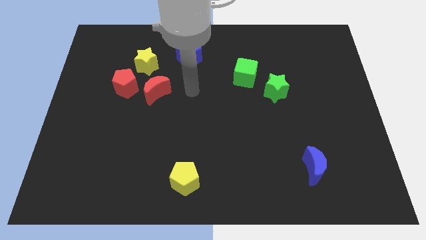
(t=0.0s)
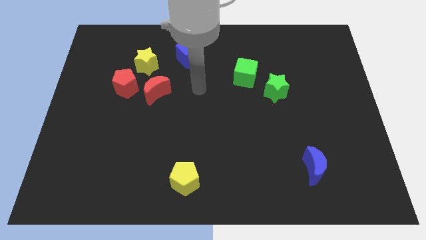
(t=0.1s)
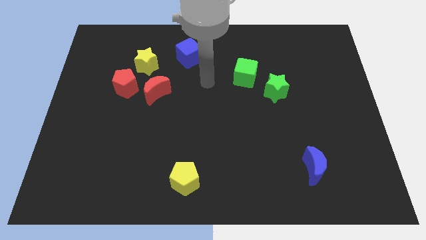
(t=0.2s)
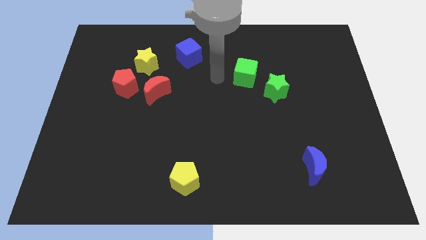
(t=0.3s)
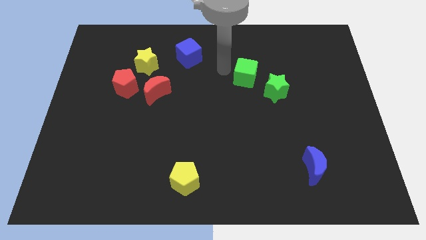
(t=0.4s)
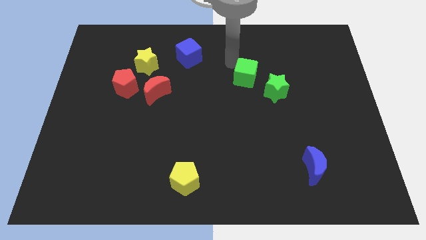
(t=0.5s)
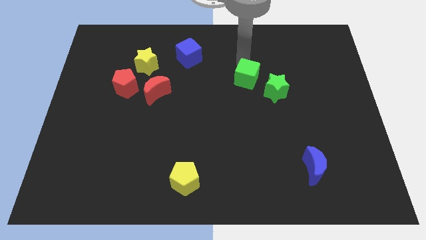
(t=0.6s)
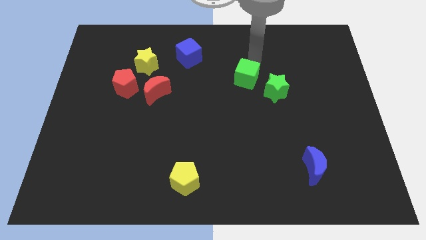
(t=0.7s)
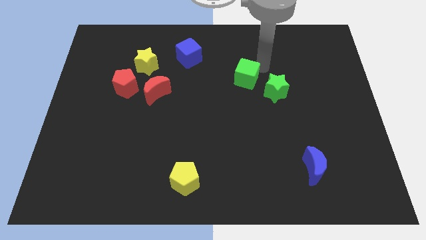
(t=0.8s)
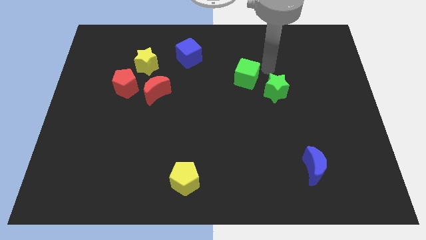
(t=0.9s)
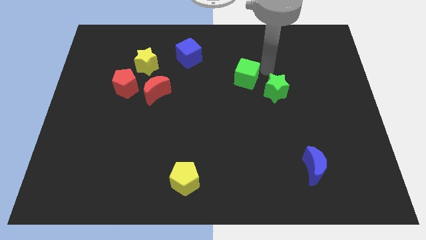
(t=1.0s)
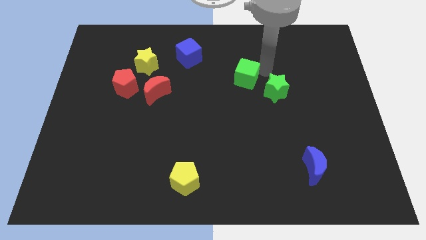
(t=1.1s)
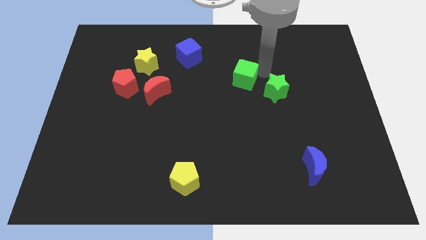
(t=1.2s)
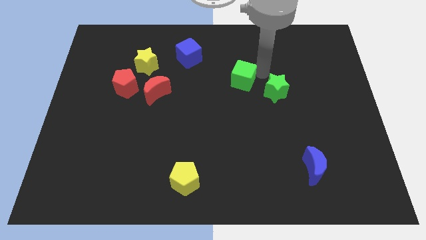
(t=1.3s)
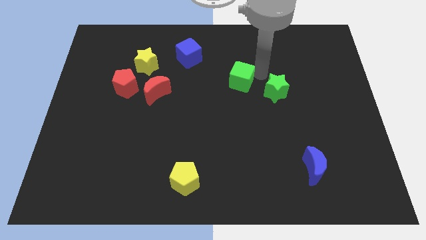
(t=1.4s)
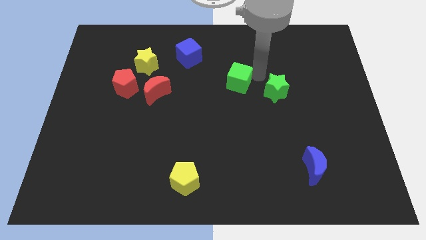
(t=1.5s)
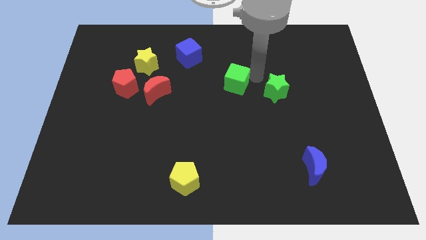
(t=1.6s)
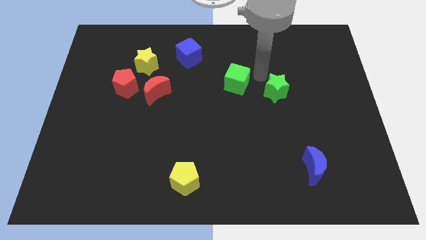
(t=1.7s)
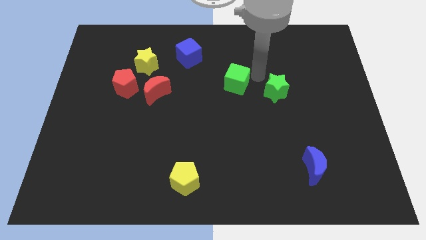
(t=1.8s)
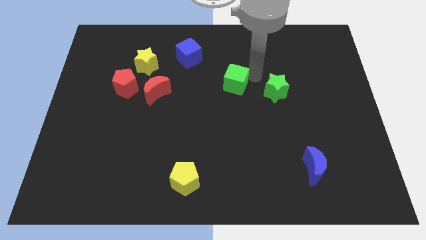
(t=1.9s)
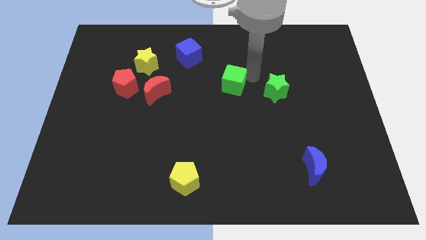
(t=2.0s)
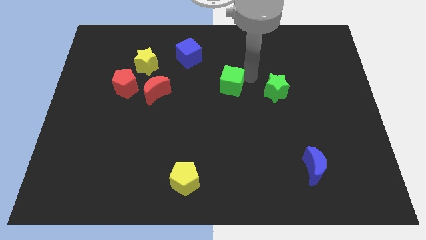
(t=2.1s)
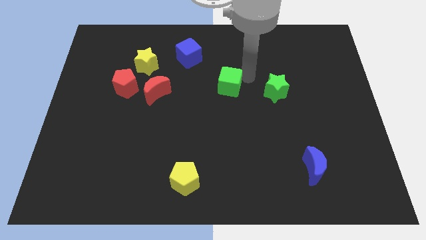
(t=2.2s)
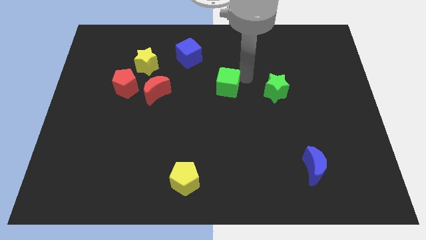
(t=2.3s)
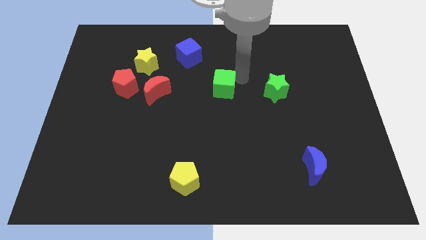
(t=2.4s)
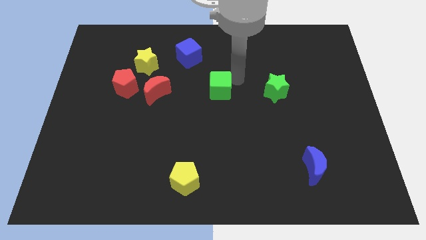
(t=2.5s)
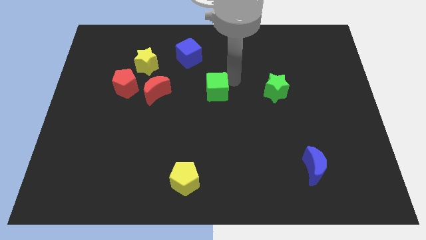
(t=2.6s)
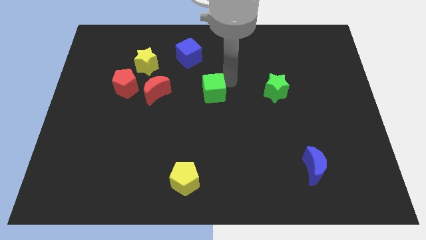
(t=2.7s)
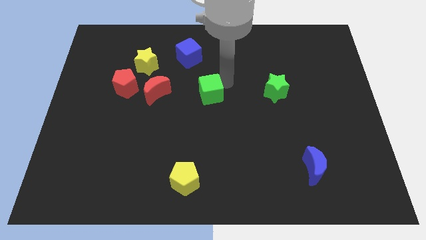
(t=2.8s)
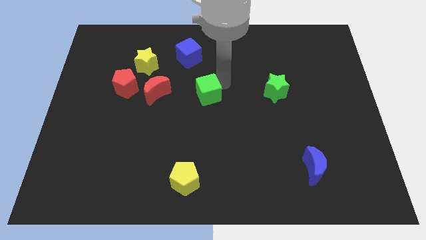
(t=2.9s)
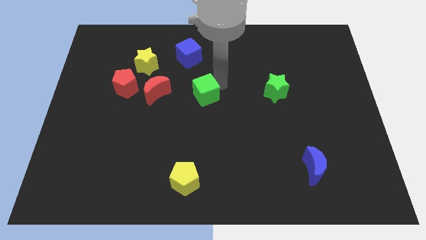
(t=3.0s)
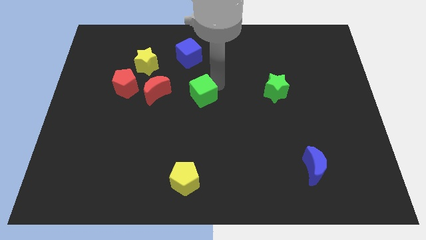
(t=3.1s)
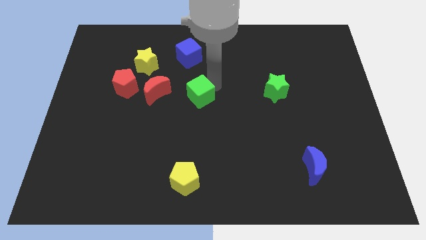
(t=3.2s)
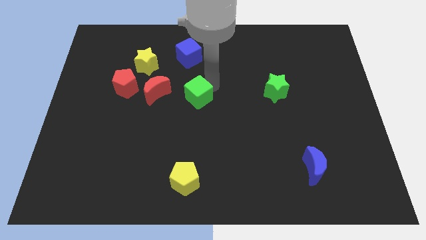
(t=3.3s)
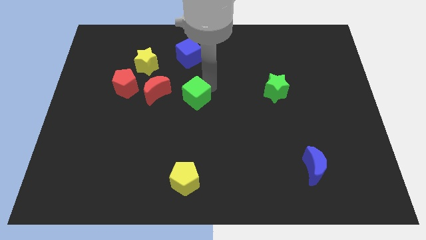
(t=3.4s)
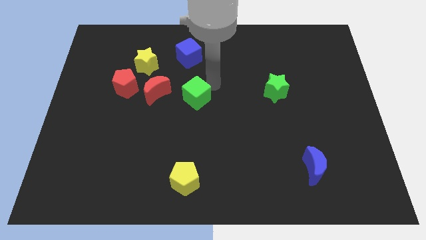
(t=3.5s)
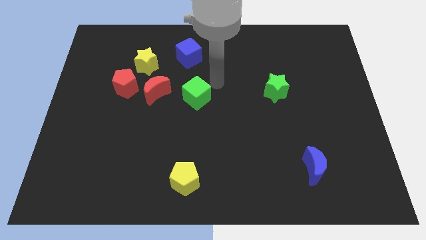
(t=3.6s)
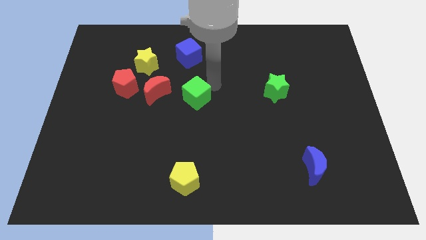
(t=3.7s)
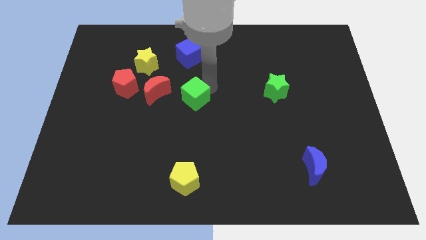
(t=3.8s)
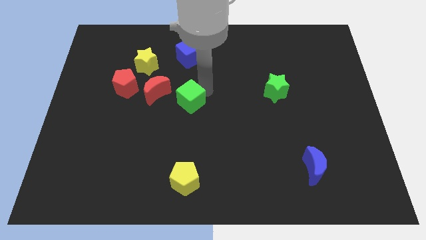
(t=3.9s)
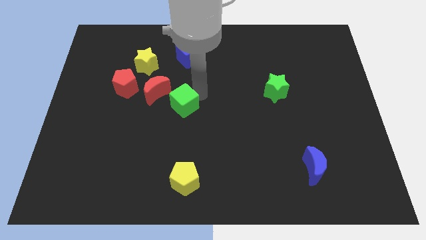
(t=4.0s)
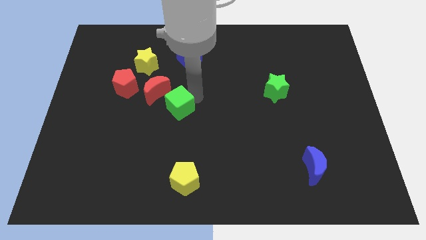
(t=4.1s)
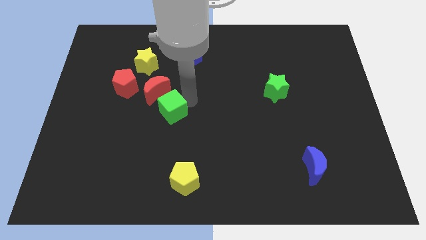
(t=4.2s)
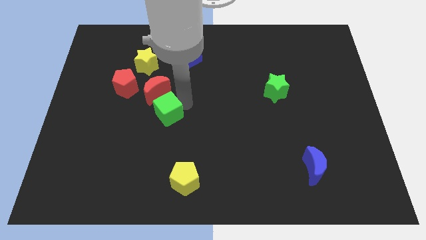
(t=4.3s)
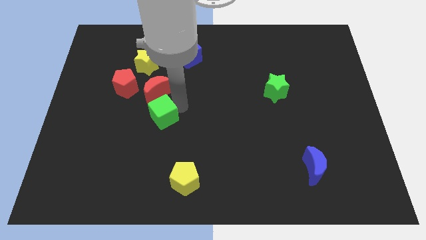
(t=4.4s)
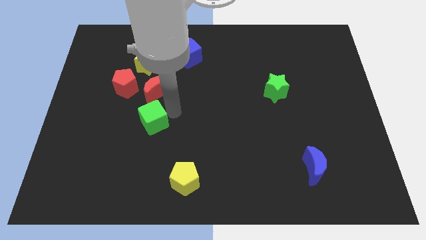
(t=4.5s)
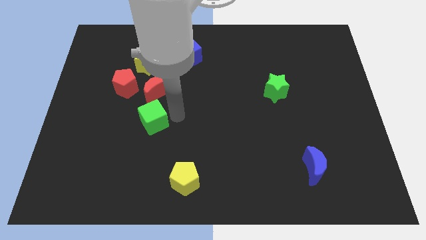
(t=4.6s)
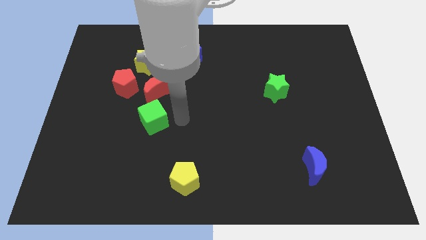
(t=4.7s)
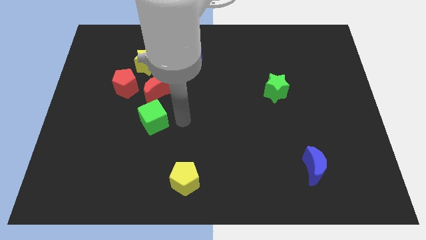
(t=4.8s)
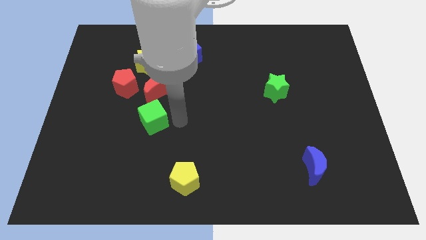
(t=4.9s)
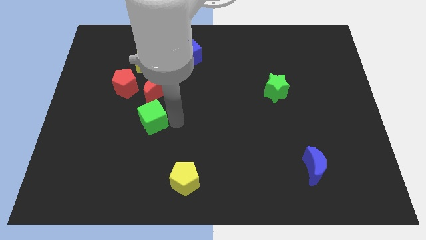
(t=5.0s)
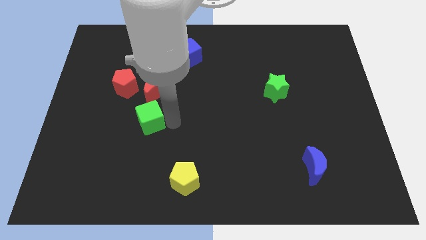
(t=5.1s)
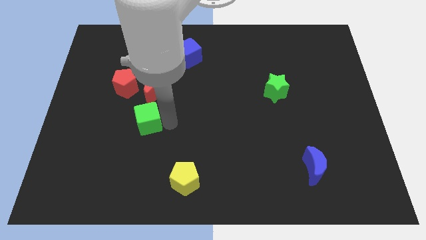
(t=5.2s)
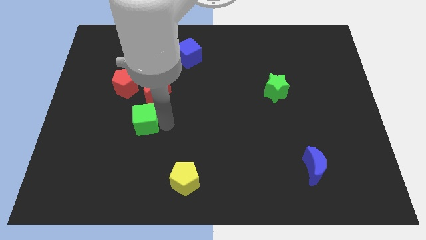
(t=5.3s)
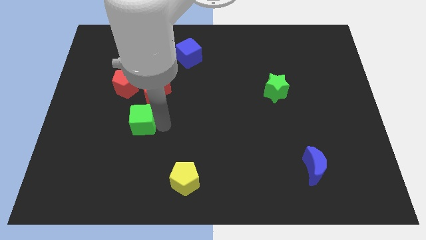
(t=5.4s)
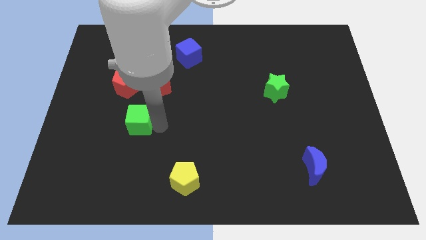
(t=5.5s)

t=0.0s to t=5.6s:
push the green cube to the bottom of the red pentagon

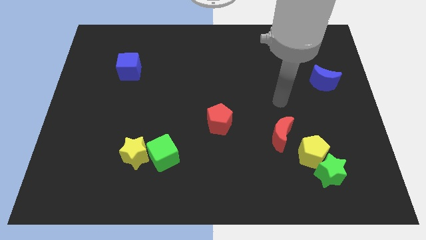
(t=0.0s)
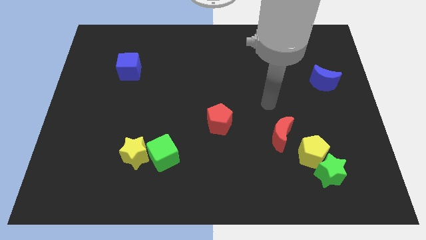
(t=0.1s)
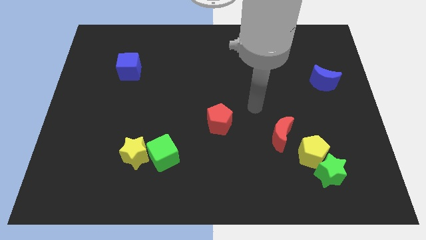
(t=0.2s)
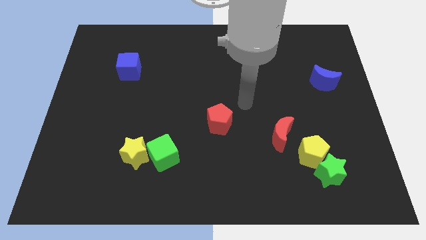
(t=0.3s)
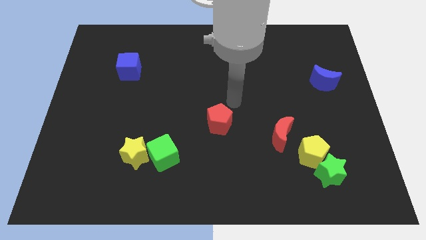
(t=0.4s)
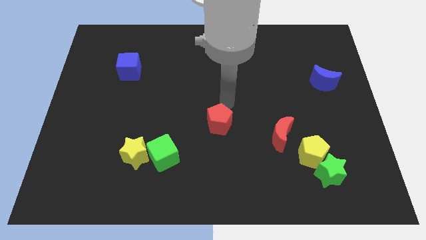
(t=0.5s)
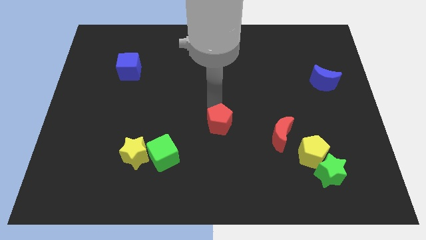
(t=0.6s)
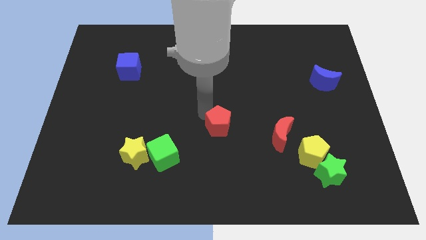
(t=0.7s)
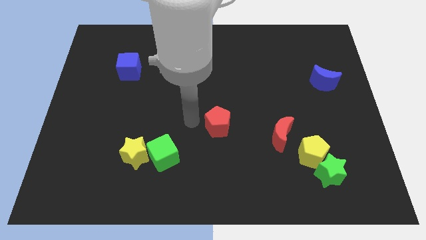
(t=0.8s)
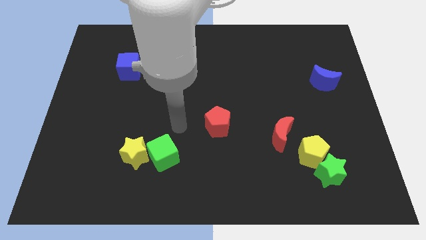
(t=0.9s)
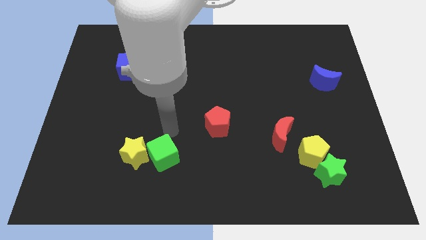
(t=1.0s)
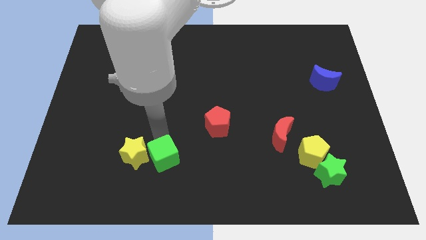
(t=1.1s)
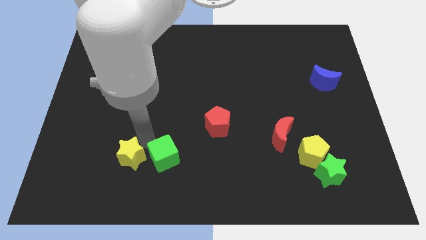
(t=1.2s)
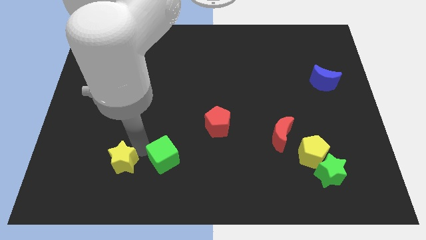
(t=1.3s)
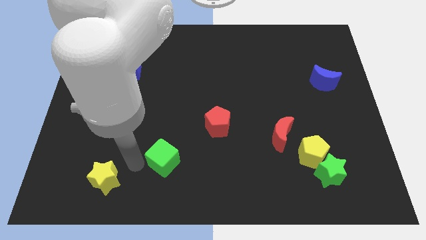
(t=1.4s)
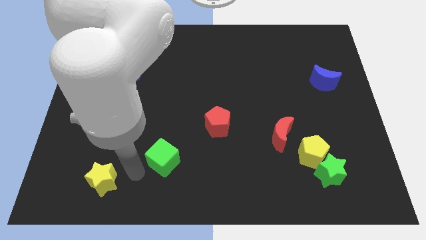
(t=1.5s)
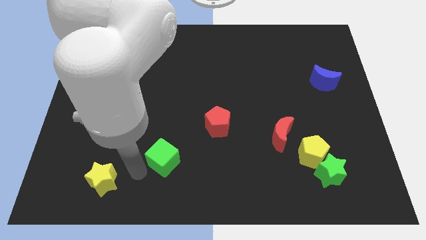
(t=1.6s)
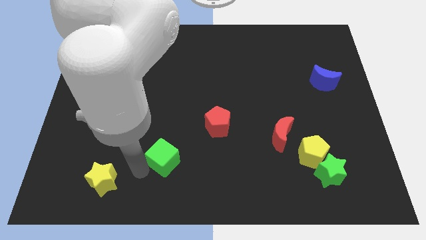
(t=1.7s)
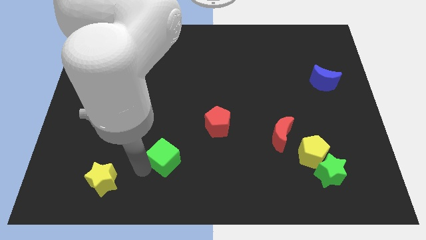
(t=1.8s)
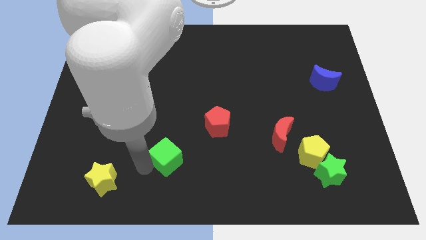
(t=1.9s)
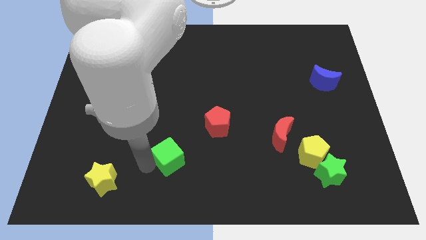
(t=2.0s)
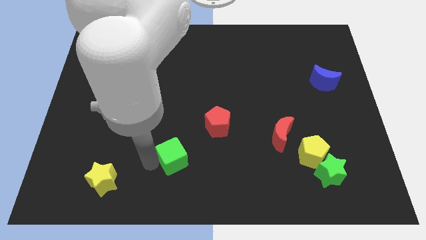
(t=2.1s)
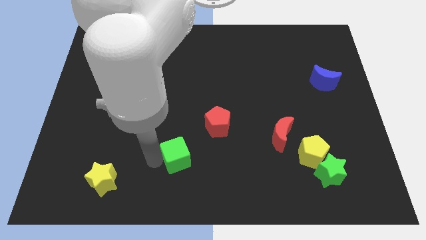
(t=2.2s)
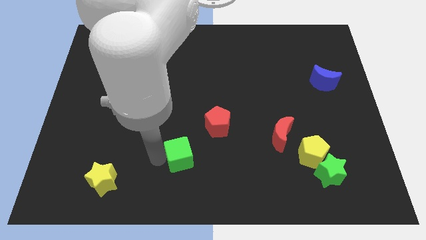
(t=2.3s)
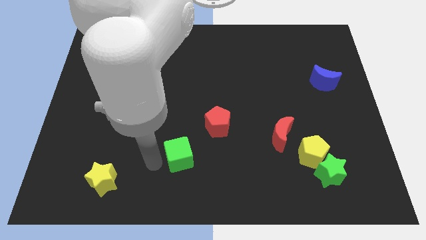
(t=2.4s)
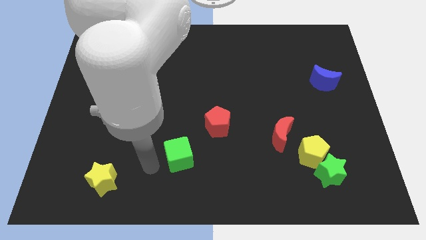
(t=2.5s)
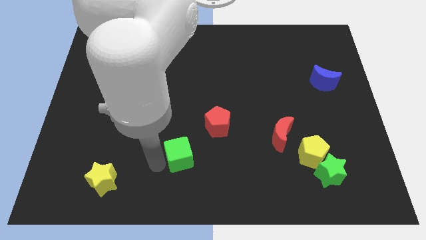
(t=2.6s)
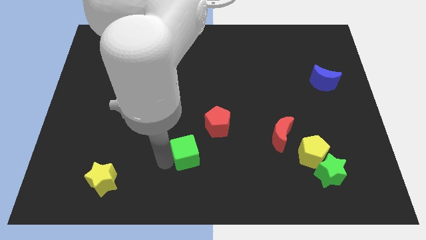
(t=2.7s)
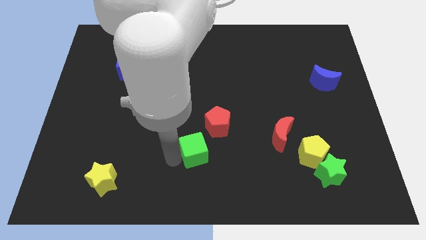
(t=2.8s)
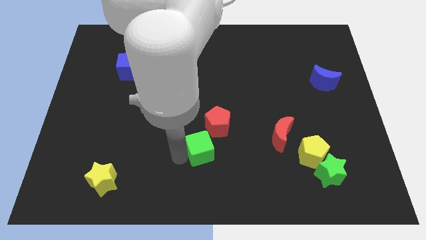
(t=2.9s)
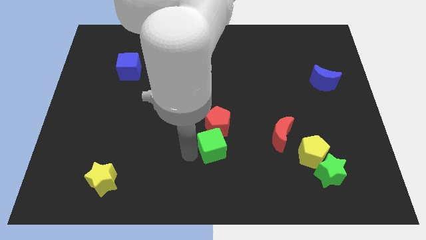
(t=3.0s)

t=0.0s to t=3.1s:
slide the green cube just left of the red moon
